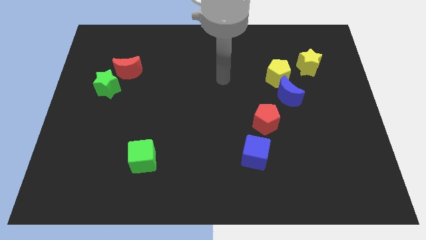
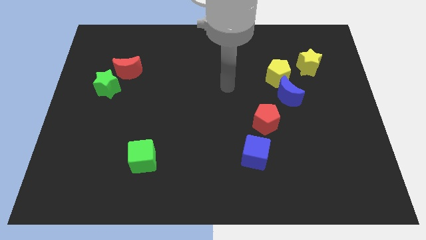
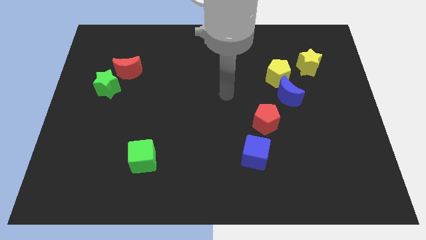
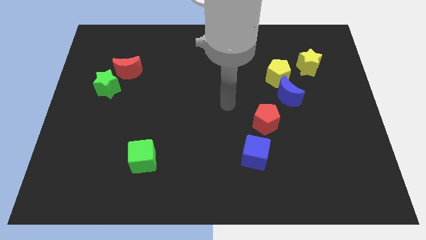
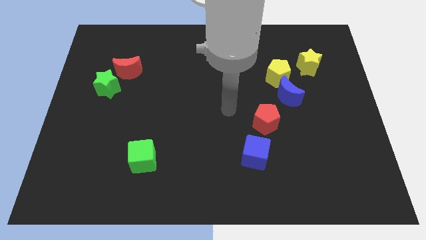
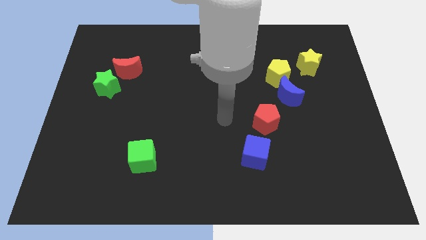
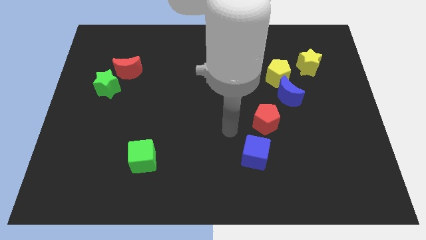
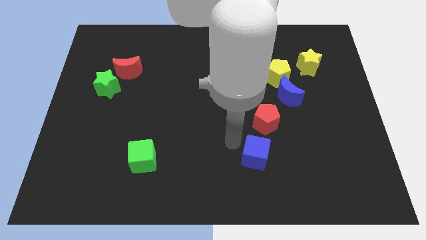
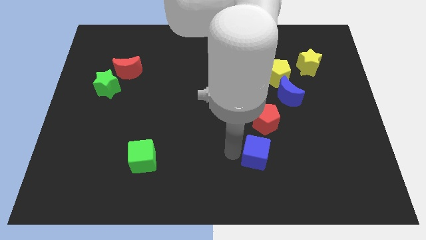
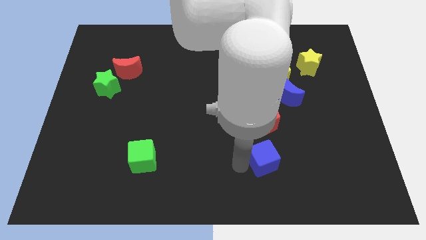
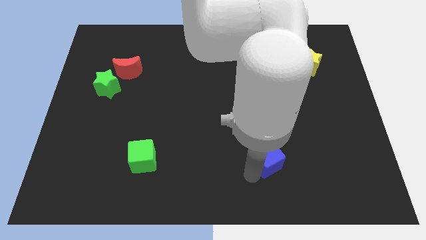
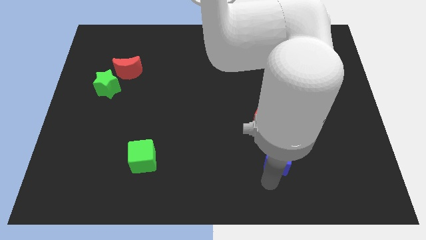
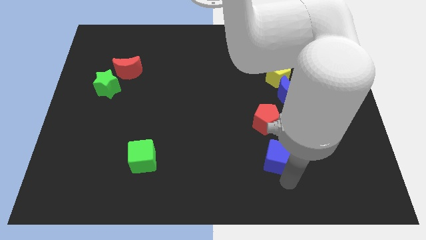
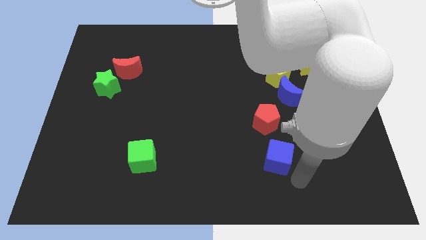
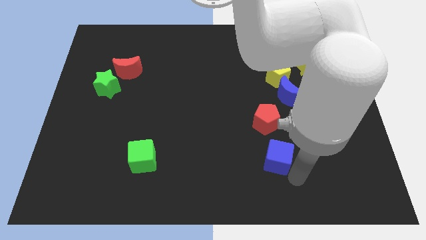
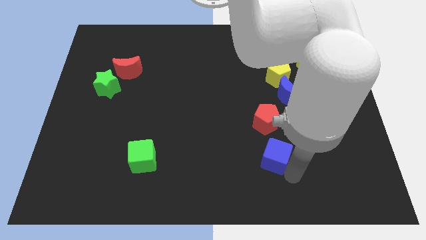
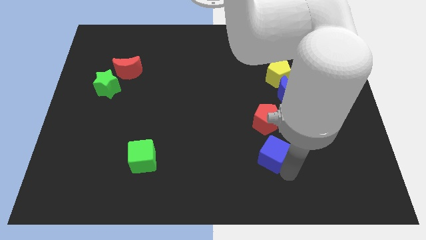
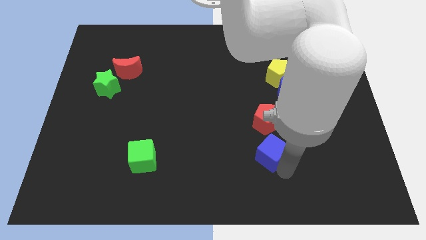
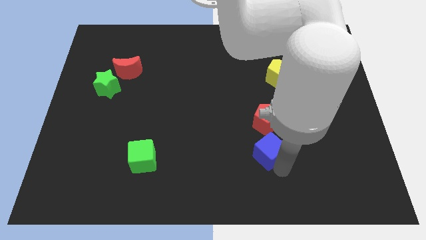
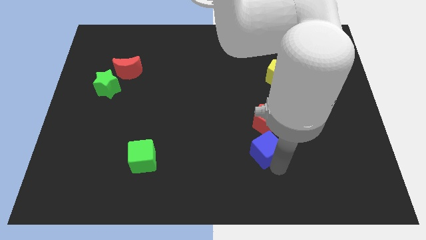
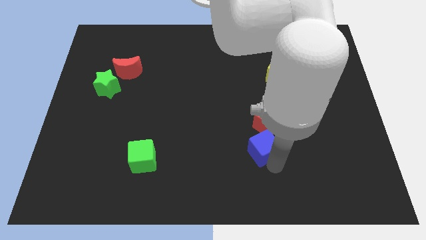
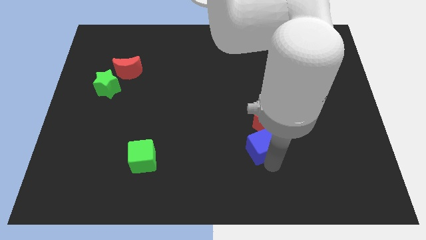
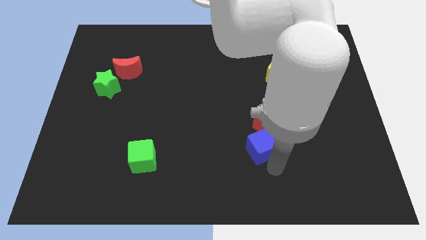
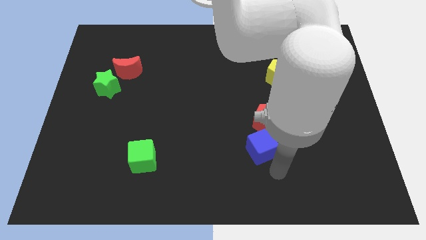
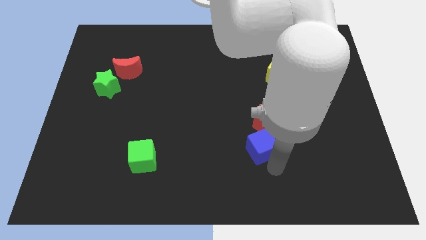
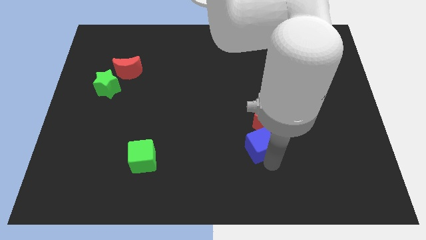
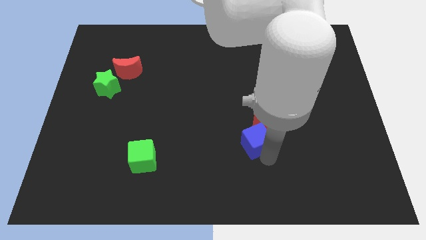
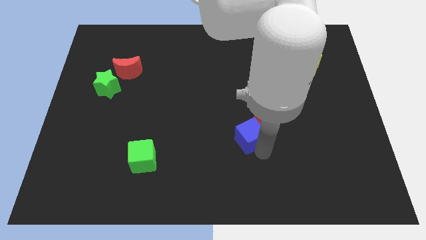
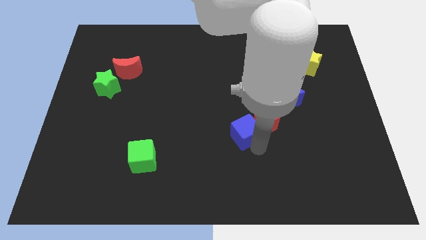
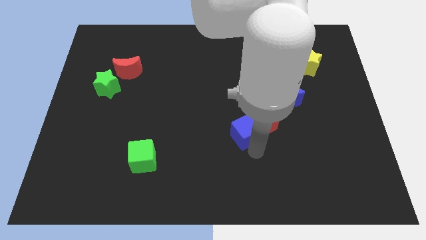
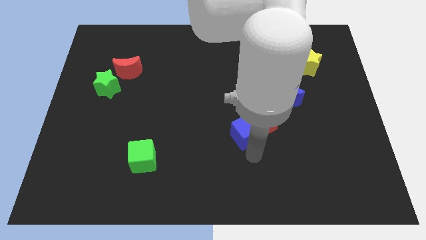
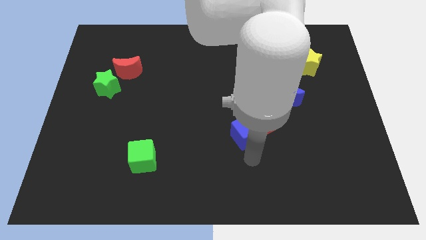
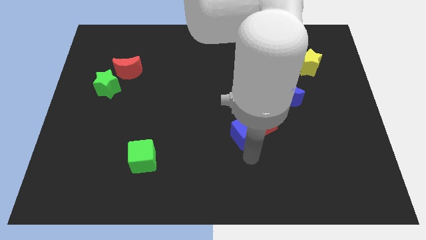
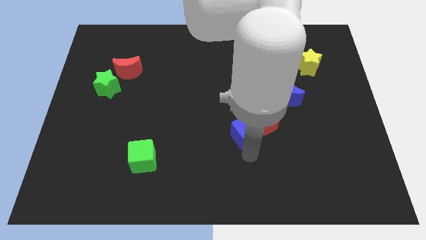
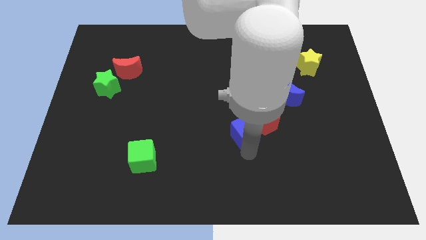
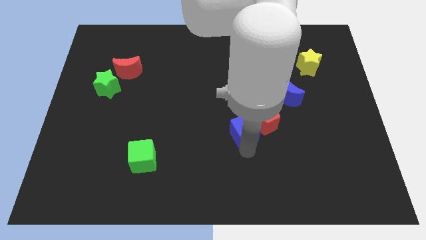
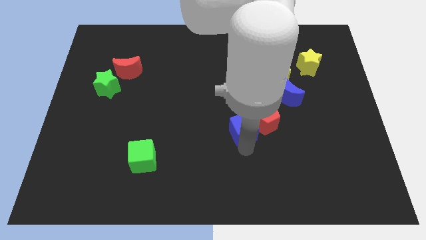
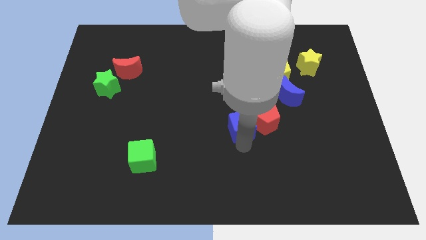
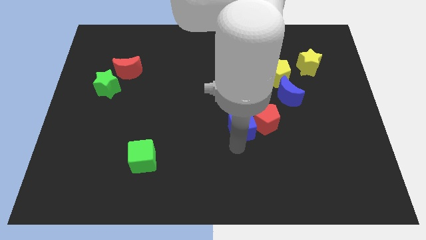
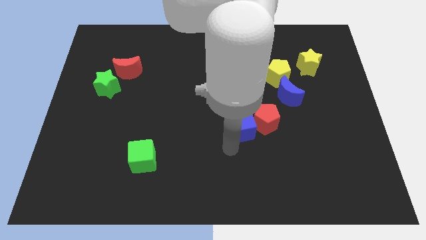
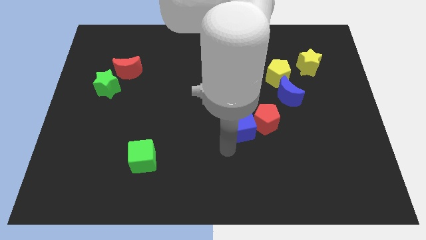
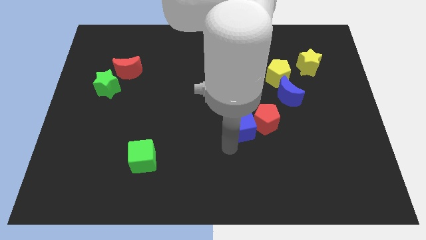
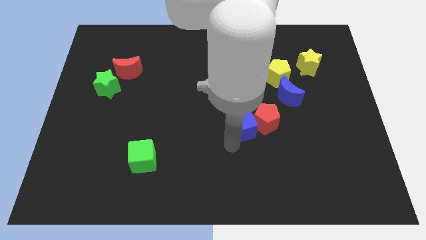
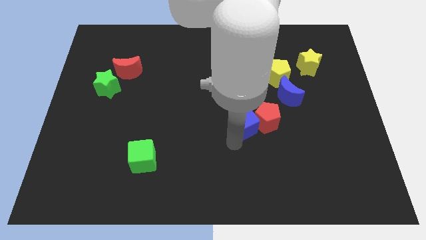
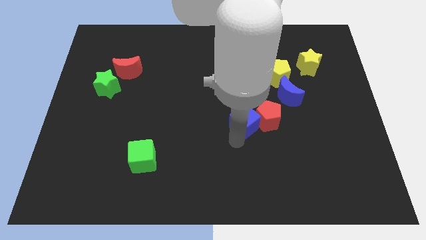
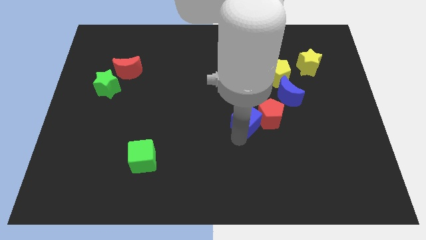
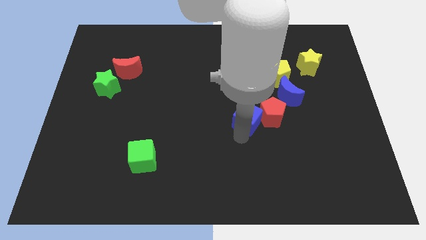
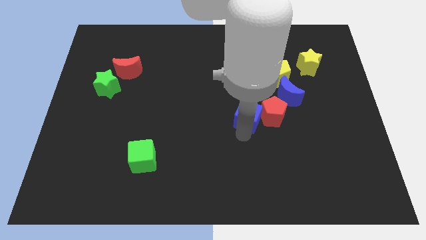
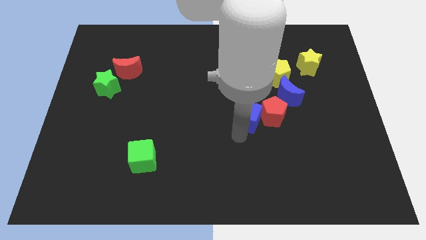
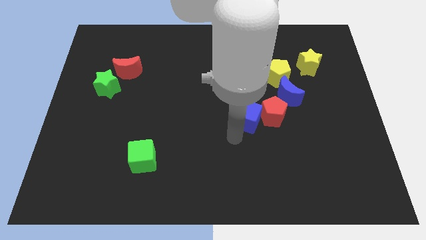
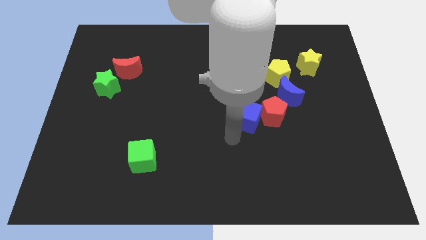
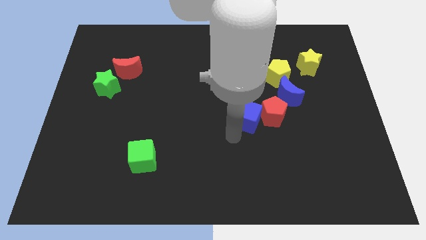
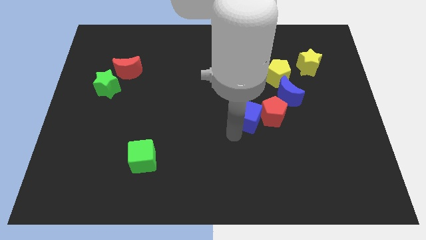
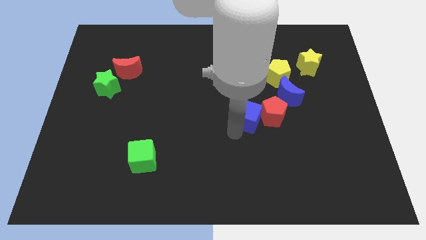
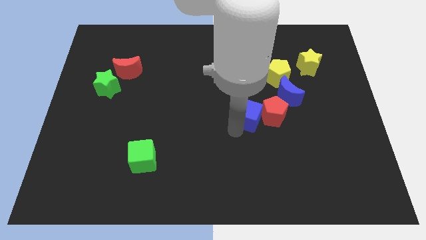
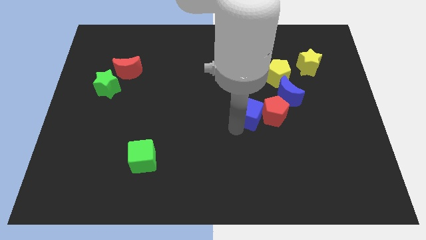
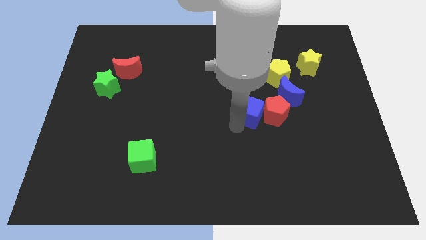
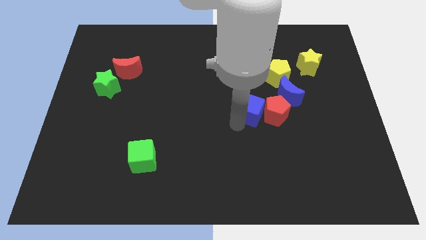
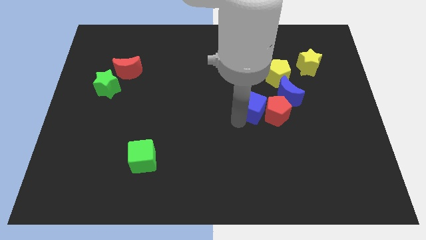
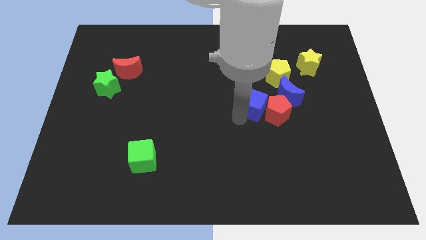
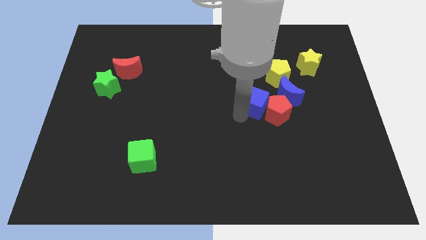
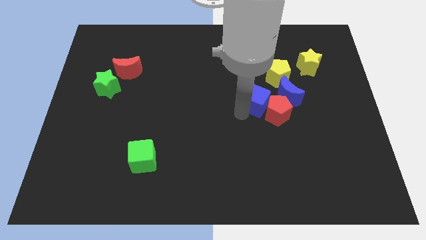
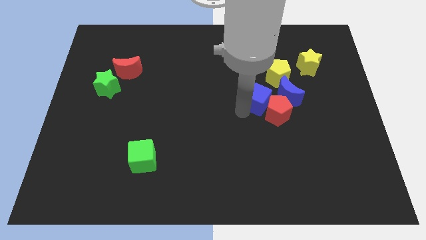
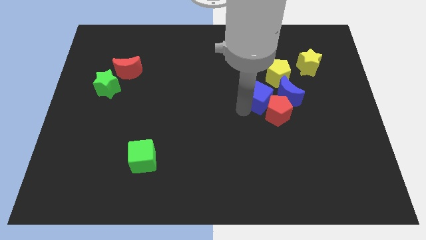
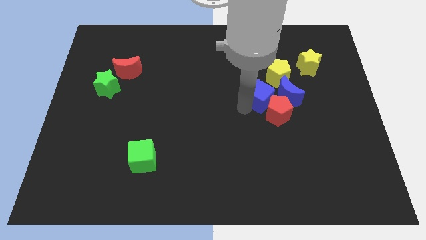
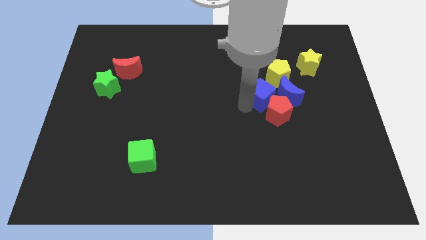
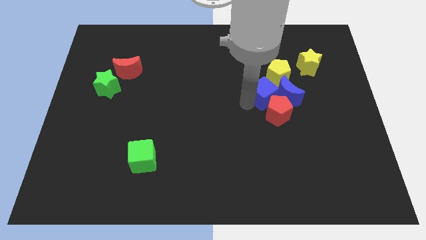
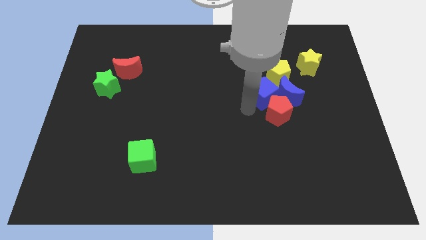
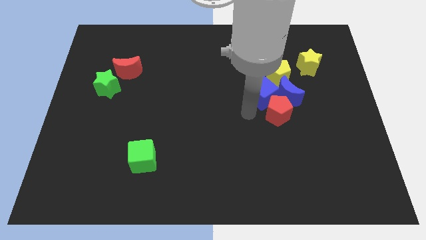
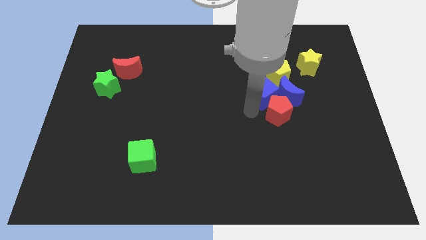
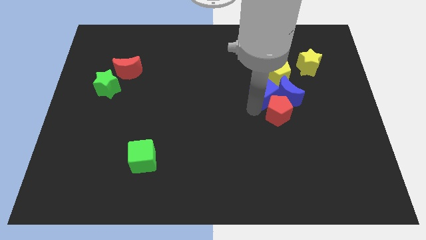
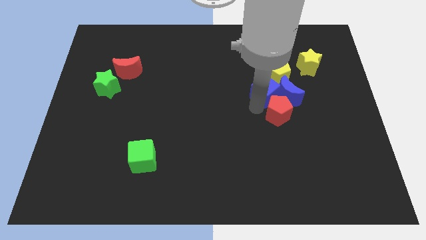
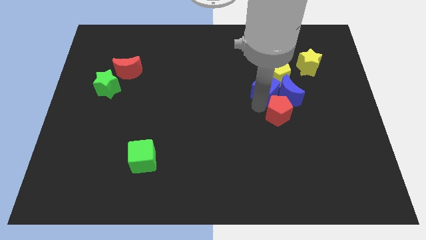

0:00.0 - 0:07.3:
slide the blue cube towards the yellow pentagon
